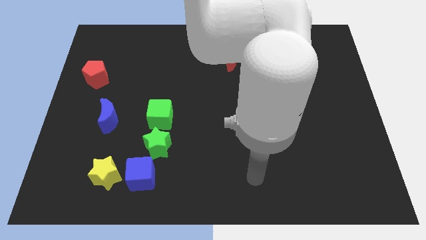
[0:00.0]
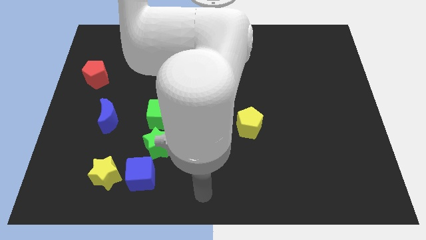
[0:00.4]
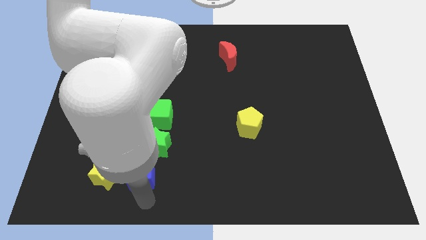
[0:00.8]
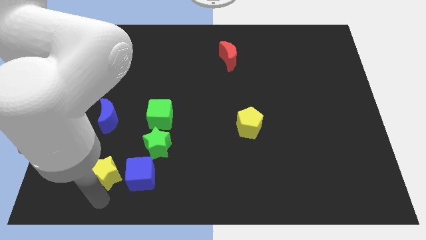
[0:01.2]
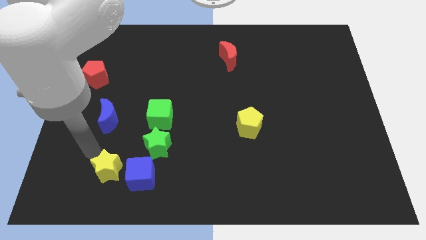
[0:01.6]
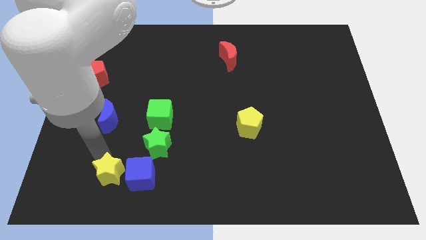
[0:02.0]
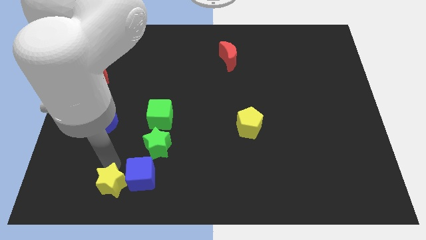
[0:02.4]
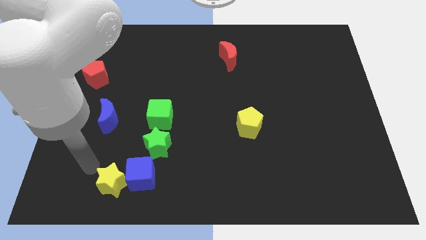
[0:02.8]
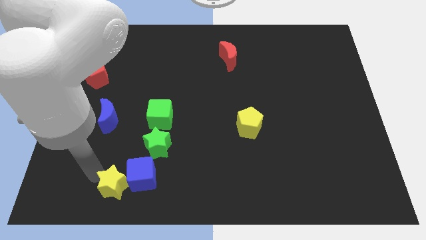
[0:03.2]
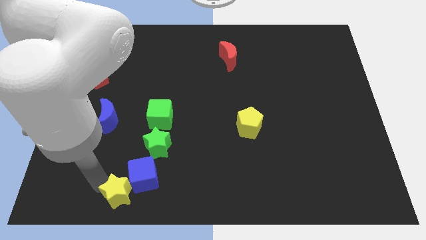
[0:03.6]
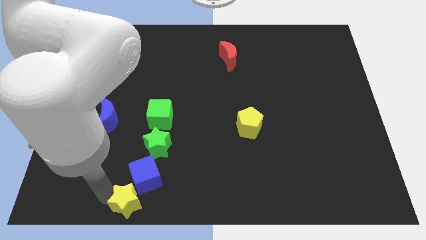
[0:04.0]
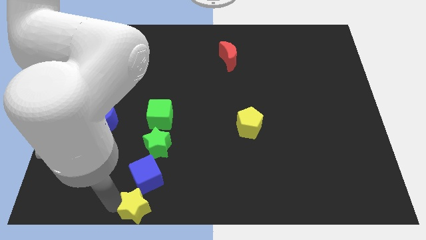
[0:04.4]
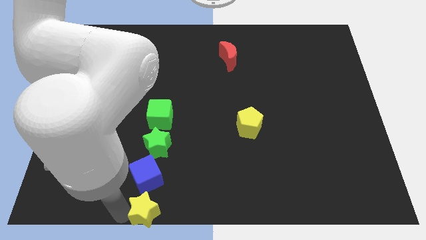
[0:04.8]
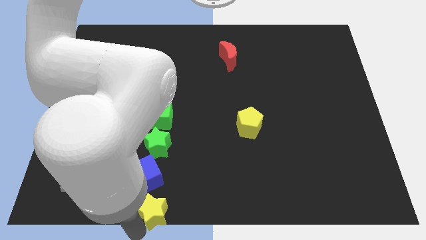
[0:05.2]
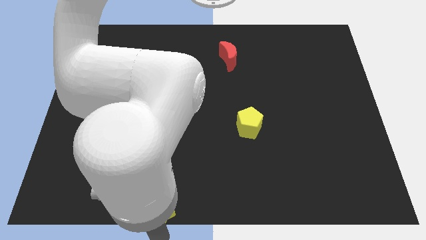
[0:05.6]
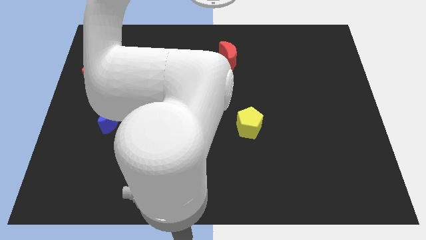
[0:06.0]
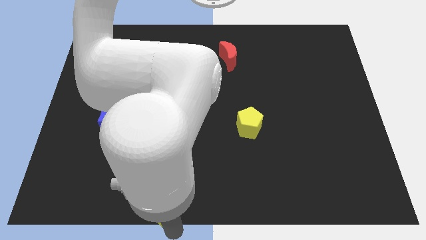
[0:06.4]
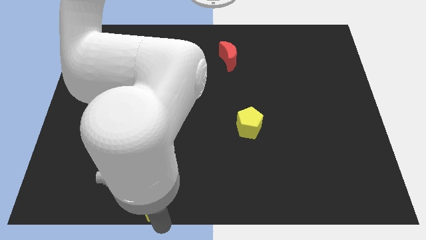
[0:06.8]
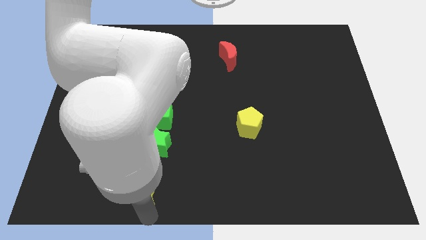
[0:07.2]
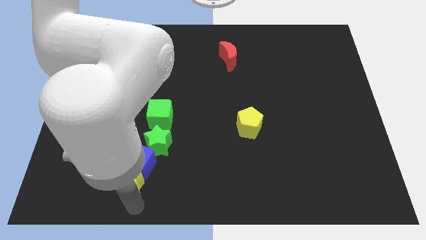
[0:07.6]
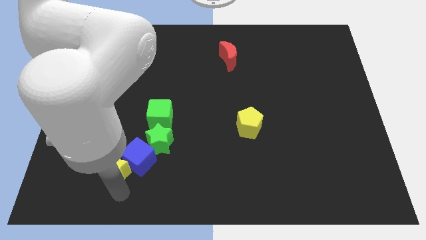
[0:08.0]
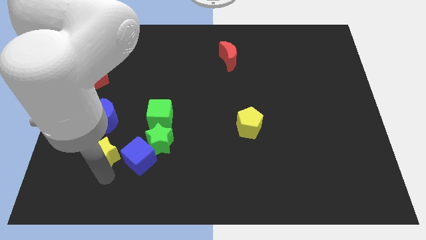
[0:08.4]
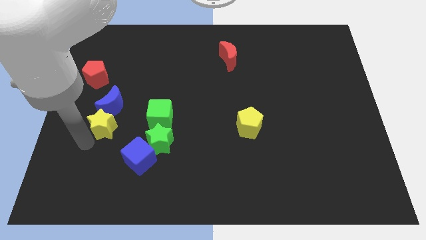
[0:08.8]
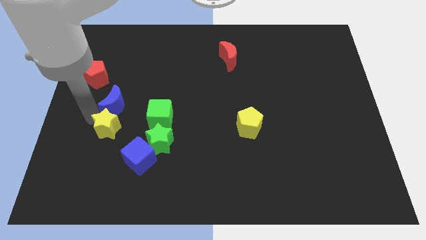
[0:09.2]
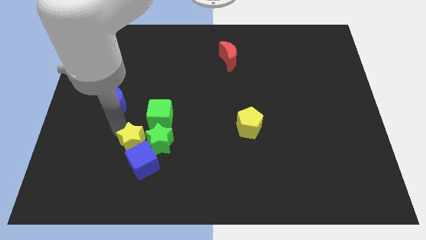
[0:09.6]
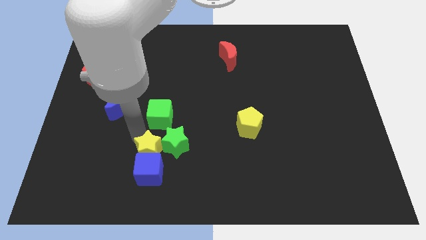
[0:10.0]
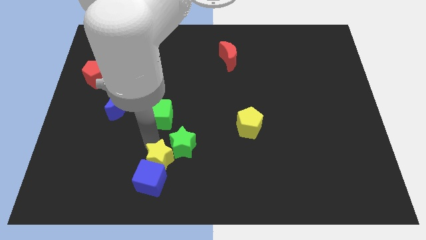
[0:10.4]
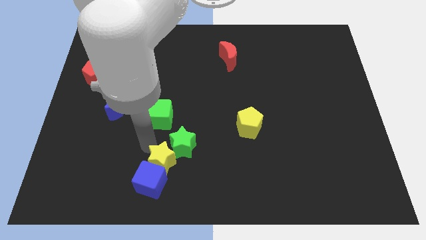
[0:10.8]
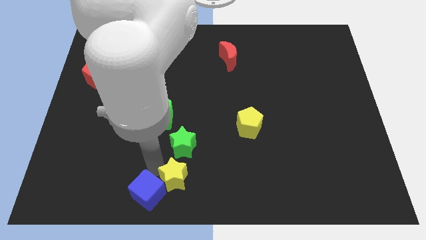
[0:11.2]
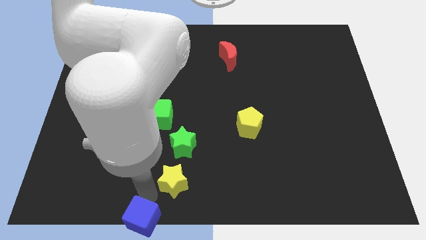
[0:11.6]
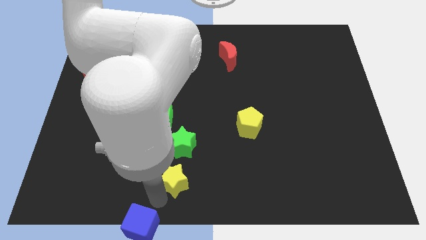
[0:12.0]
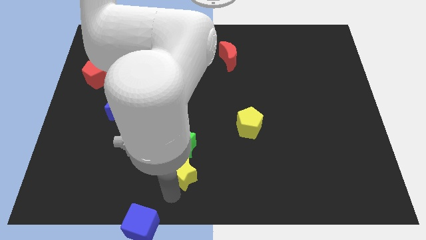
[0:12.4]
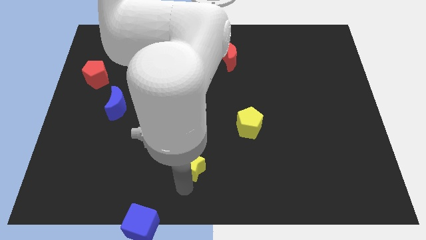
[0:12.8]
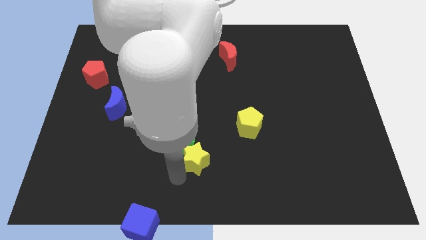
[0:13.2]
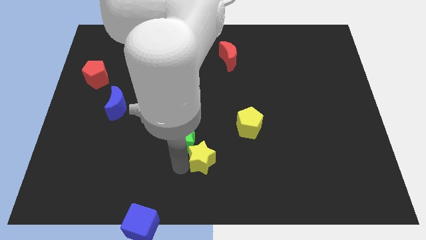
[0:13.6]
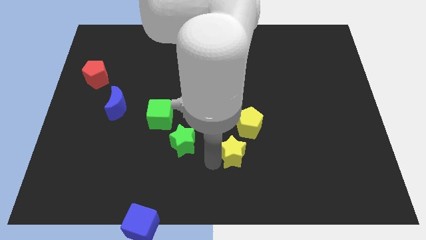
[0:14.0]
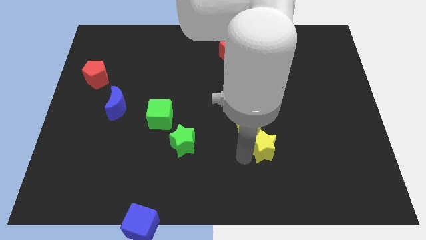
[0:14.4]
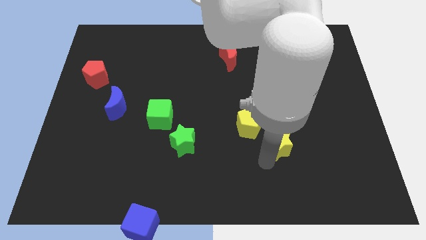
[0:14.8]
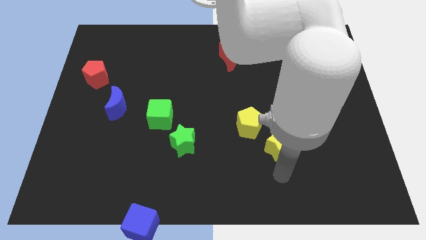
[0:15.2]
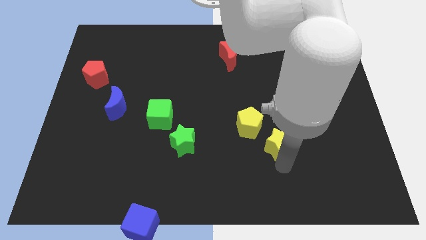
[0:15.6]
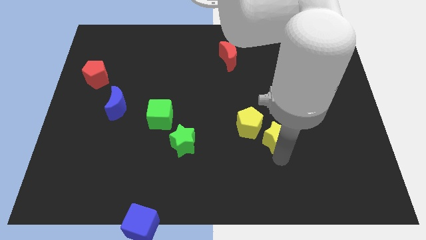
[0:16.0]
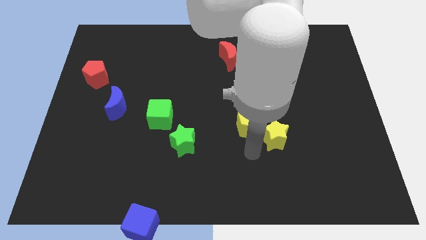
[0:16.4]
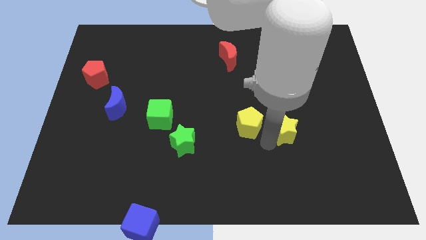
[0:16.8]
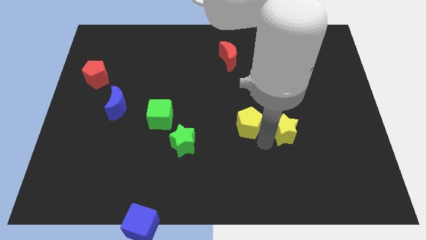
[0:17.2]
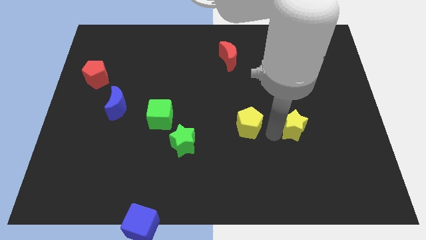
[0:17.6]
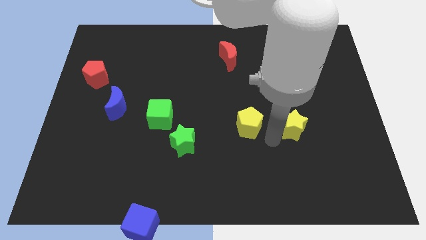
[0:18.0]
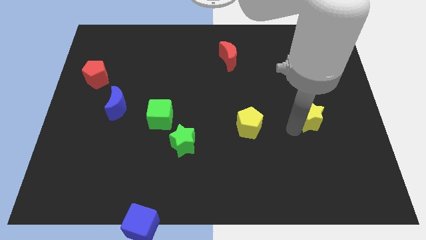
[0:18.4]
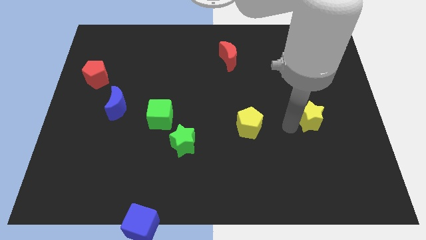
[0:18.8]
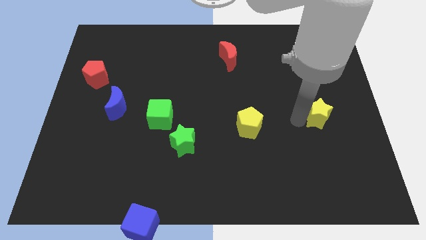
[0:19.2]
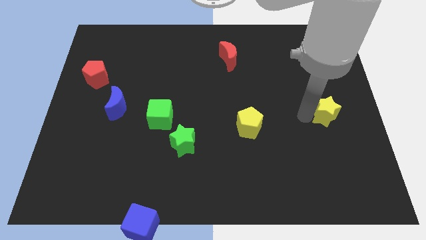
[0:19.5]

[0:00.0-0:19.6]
move the yellow star to the right side of the board

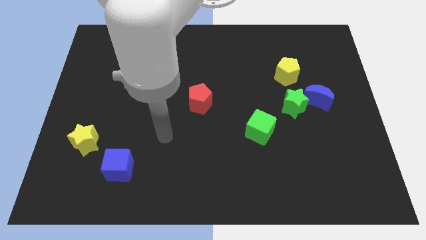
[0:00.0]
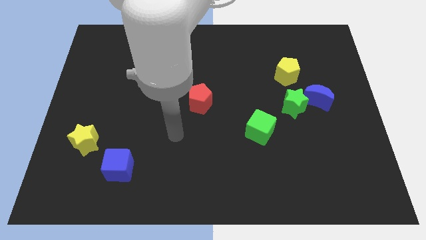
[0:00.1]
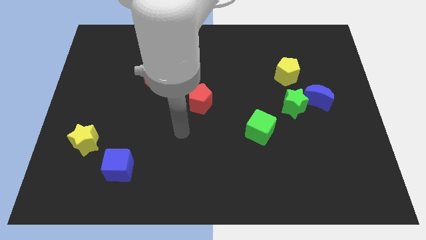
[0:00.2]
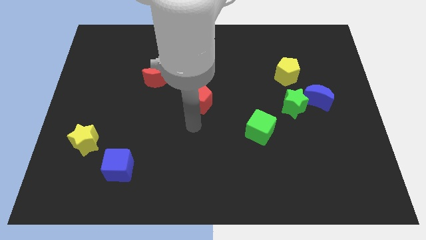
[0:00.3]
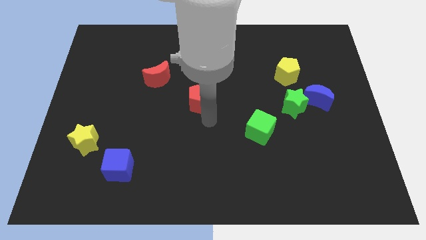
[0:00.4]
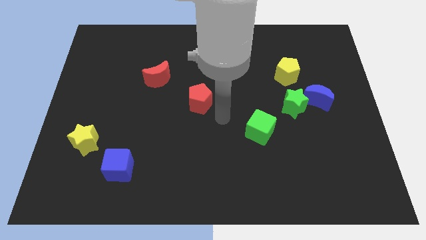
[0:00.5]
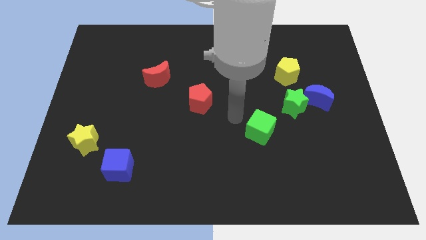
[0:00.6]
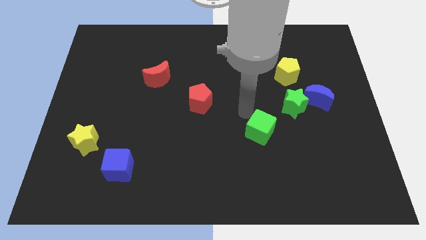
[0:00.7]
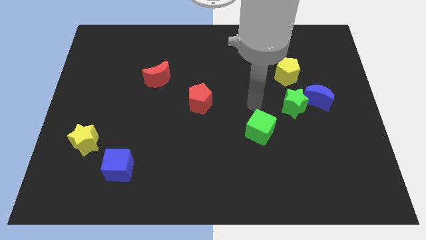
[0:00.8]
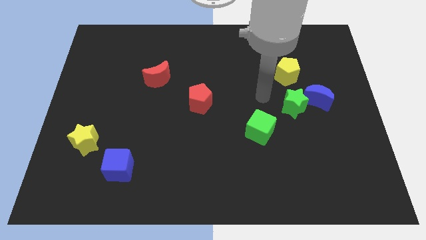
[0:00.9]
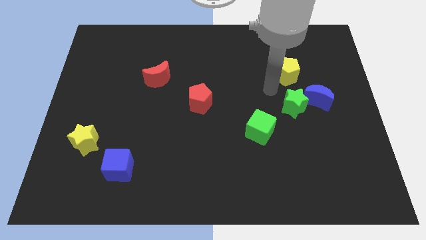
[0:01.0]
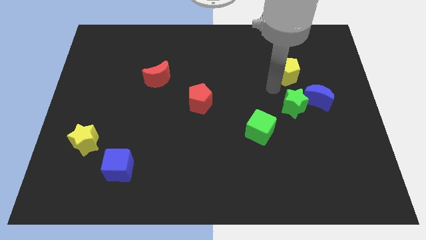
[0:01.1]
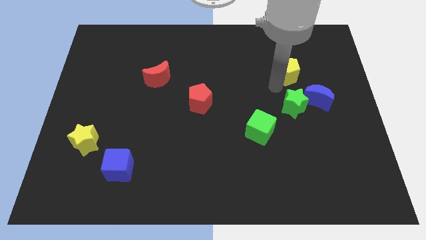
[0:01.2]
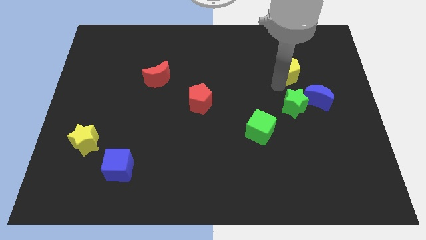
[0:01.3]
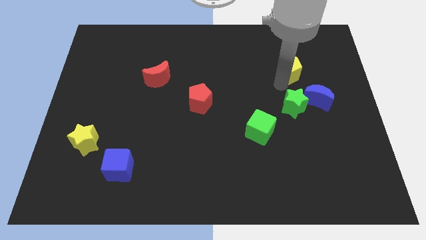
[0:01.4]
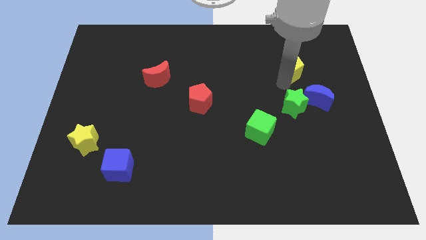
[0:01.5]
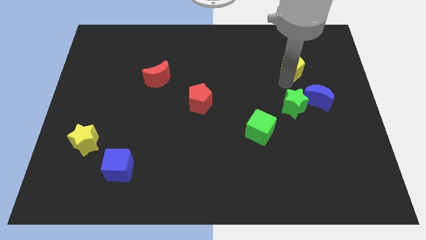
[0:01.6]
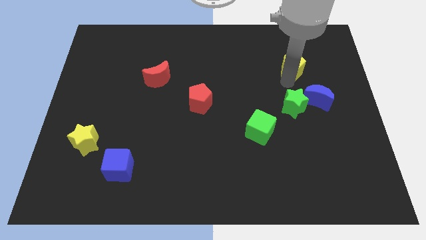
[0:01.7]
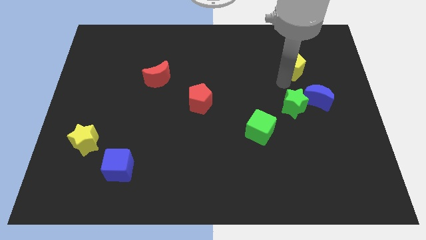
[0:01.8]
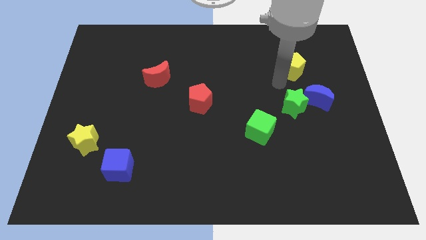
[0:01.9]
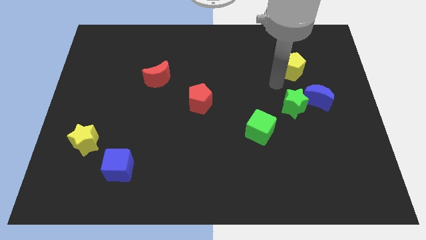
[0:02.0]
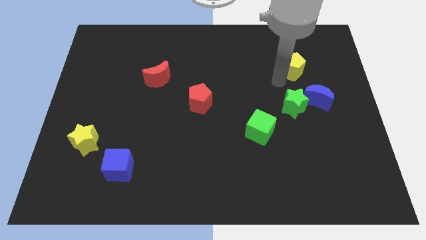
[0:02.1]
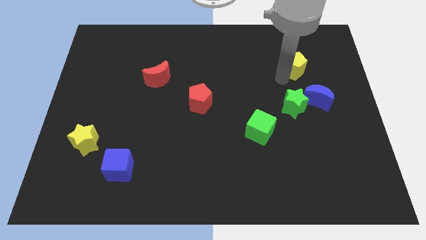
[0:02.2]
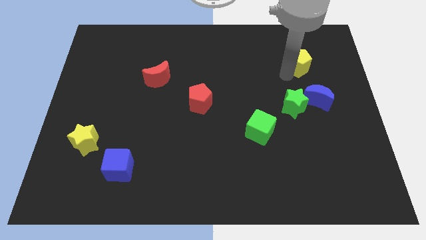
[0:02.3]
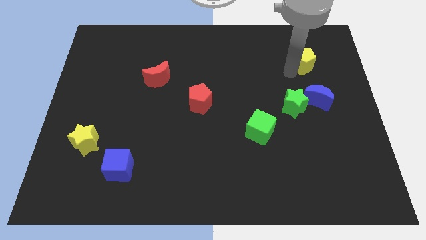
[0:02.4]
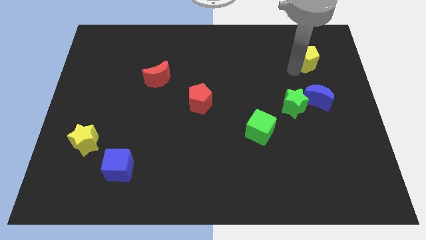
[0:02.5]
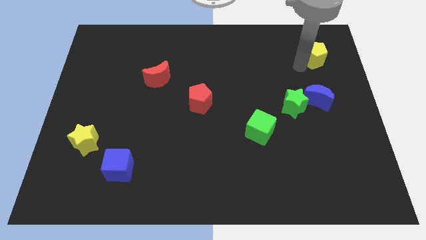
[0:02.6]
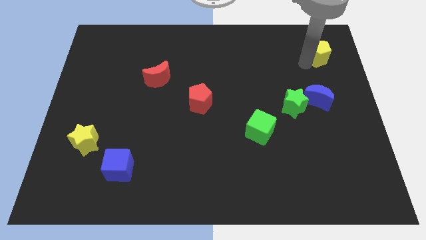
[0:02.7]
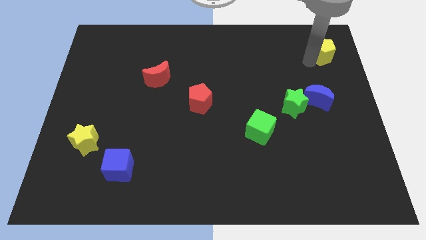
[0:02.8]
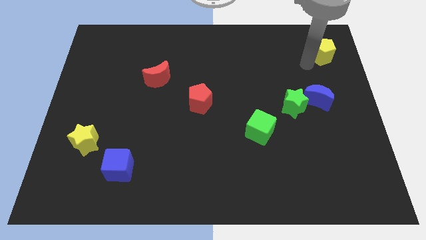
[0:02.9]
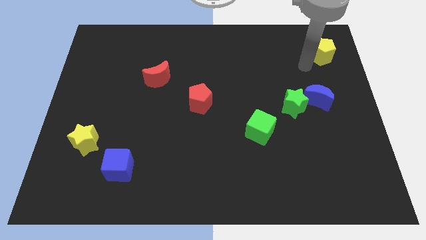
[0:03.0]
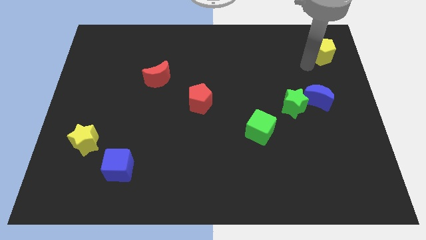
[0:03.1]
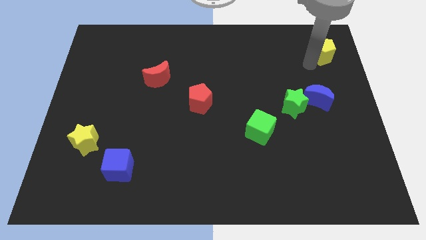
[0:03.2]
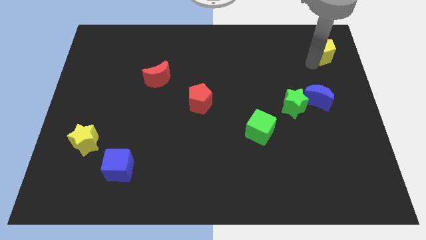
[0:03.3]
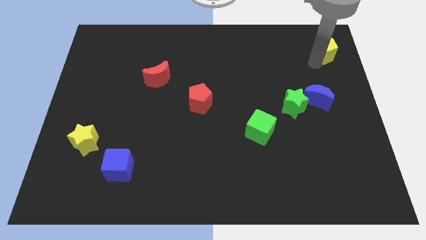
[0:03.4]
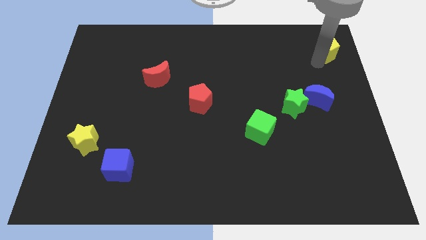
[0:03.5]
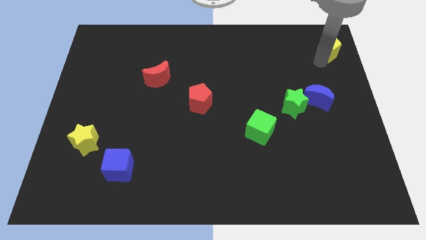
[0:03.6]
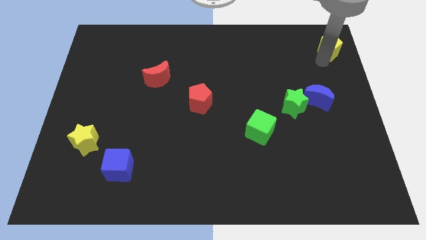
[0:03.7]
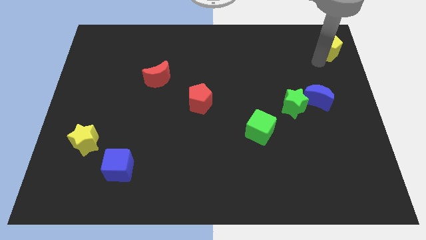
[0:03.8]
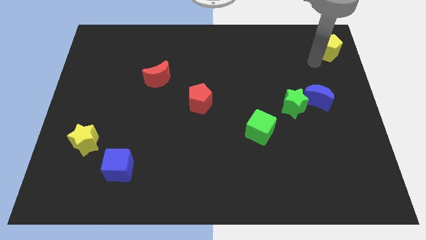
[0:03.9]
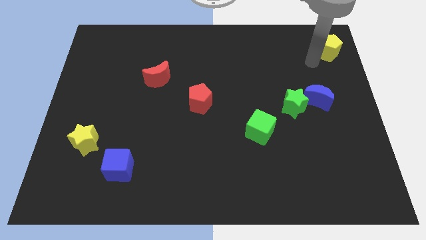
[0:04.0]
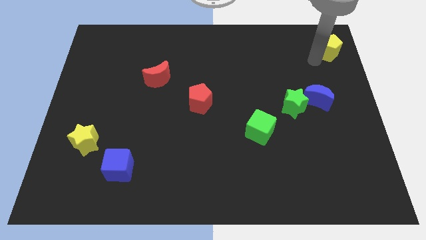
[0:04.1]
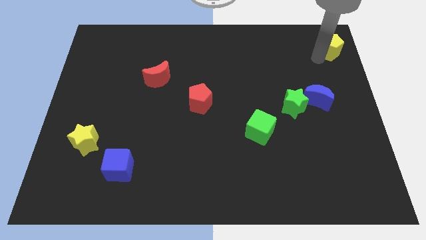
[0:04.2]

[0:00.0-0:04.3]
push the yellow pentagon to the top right corner
